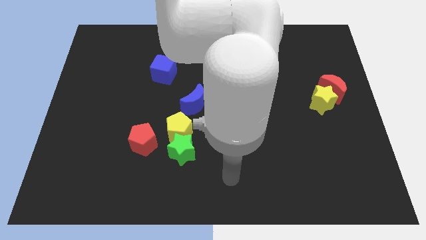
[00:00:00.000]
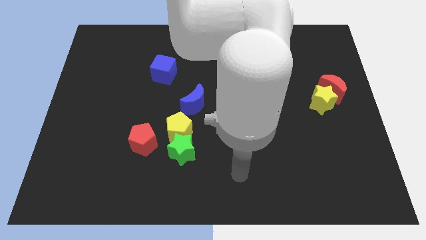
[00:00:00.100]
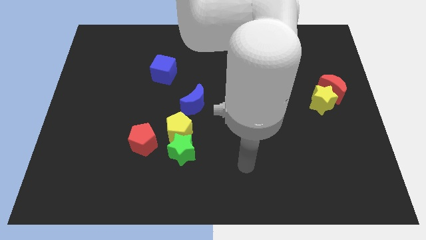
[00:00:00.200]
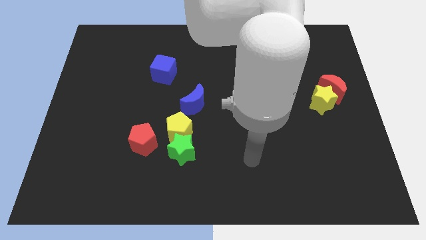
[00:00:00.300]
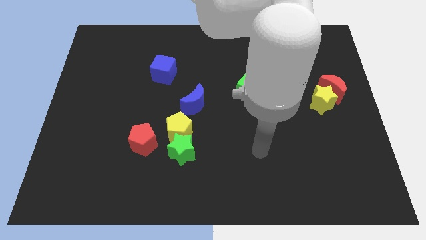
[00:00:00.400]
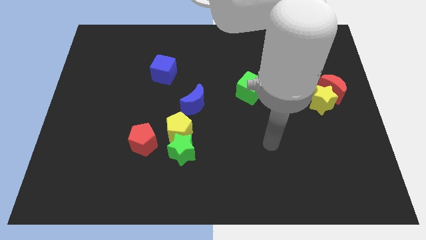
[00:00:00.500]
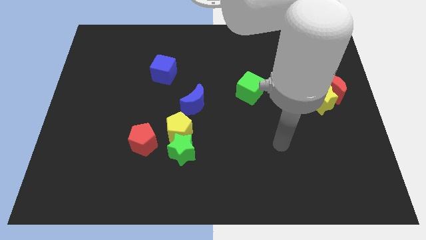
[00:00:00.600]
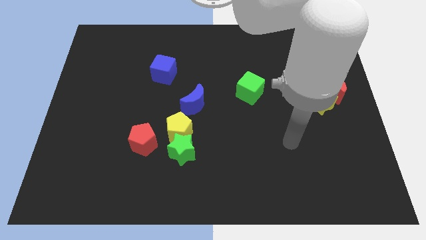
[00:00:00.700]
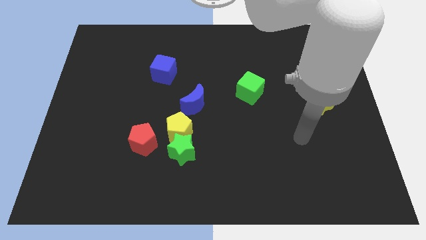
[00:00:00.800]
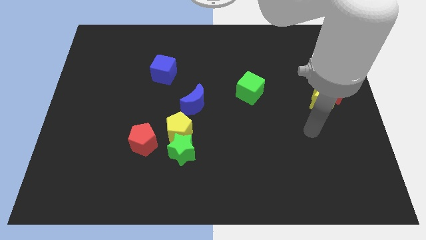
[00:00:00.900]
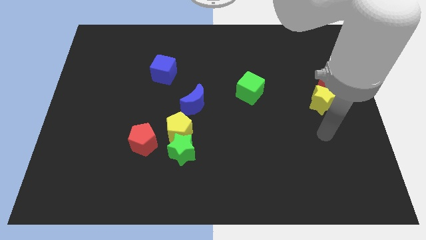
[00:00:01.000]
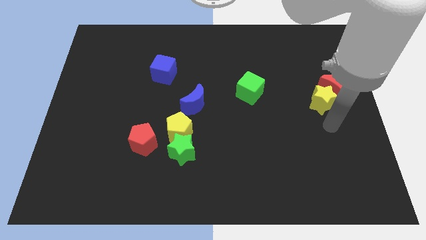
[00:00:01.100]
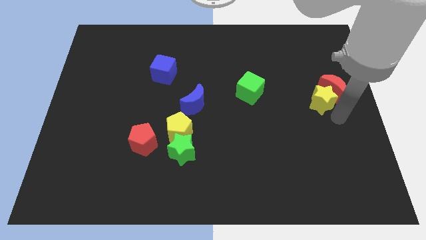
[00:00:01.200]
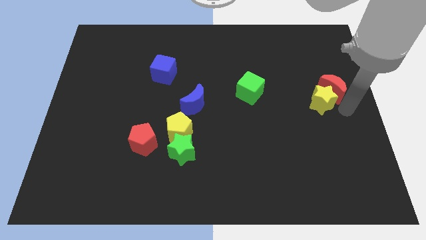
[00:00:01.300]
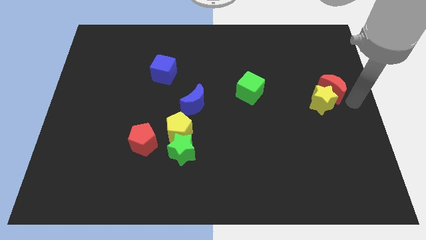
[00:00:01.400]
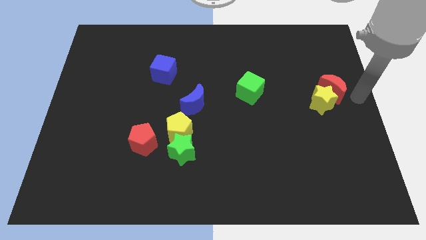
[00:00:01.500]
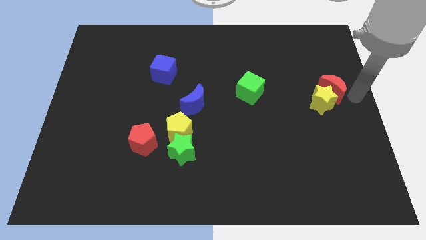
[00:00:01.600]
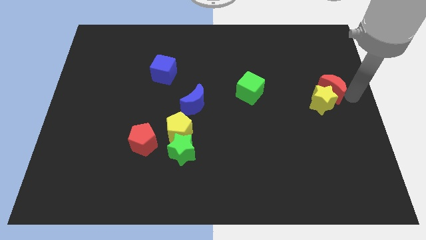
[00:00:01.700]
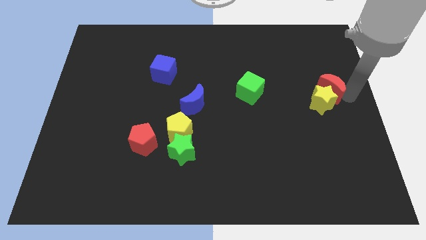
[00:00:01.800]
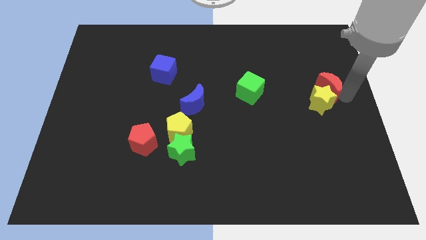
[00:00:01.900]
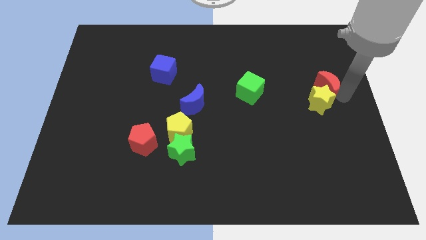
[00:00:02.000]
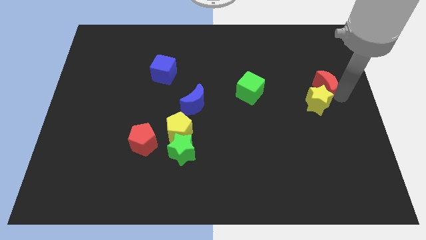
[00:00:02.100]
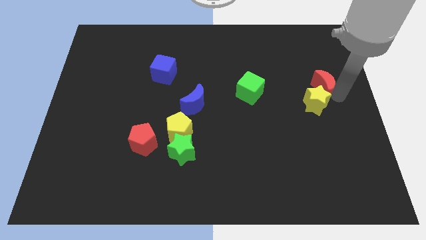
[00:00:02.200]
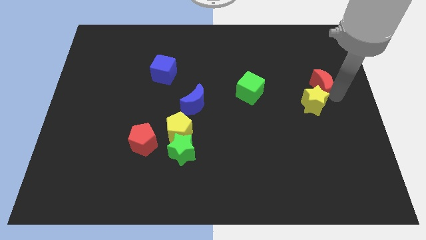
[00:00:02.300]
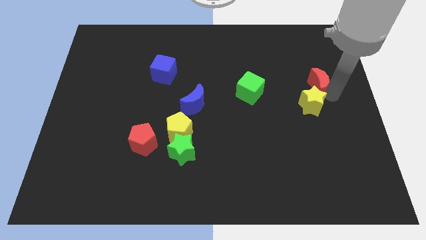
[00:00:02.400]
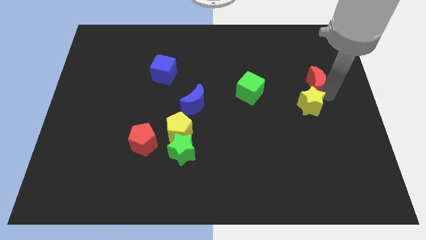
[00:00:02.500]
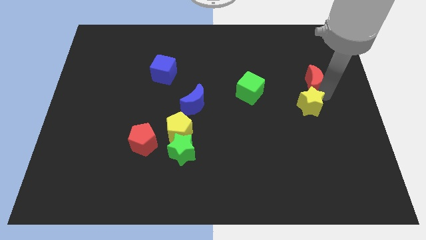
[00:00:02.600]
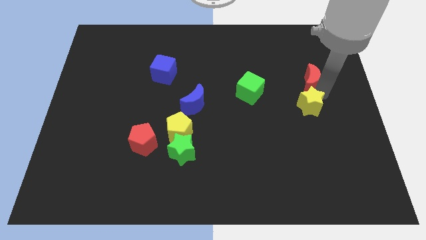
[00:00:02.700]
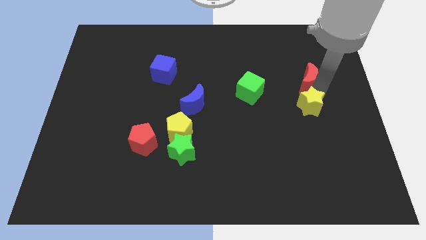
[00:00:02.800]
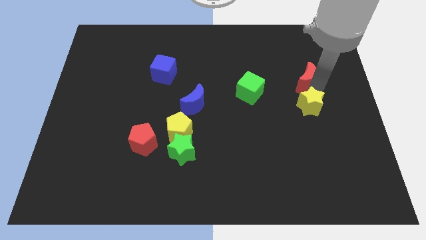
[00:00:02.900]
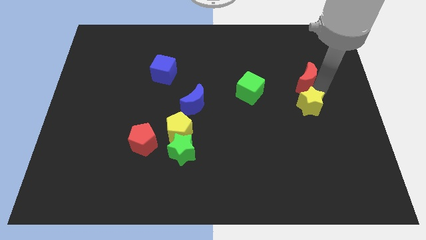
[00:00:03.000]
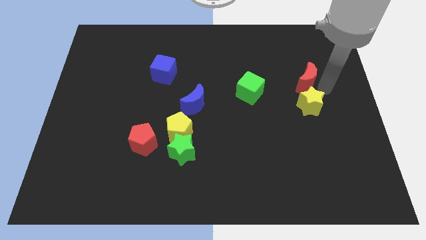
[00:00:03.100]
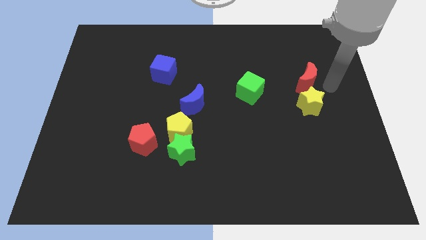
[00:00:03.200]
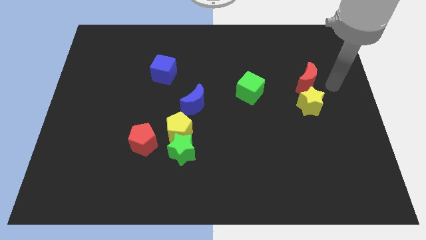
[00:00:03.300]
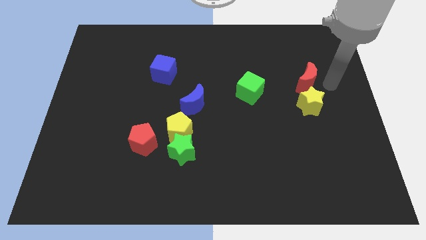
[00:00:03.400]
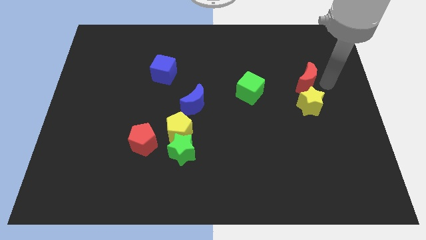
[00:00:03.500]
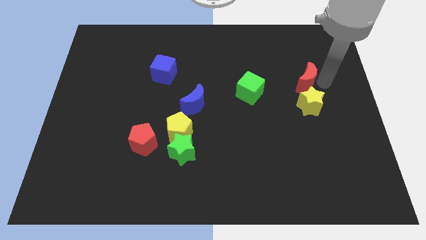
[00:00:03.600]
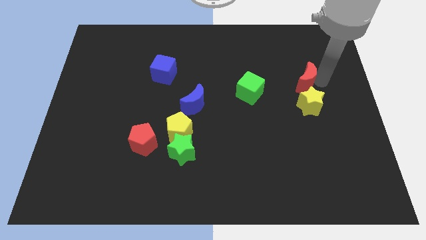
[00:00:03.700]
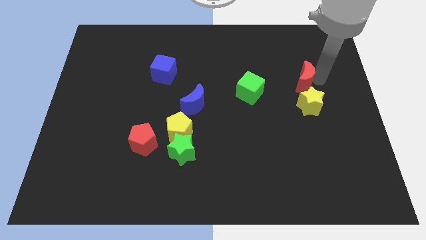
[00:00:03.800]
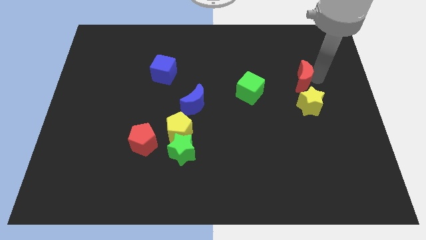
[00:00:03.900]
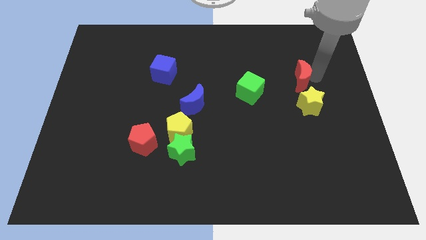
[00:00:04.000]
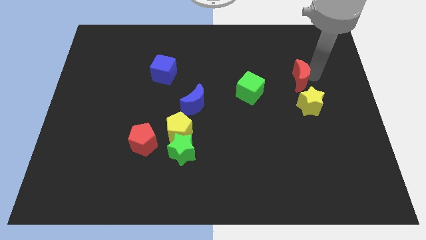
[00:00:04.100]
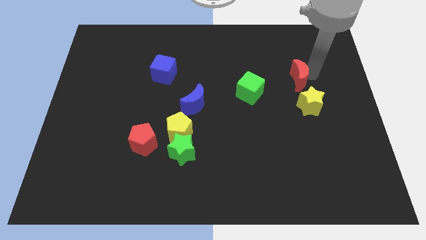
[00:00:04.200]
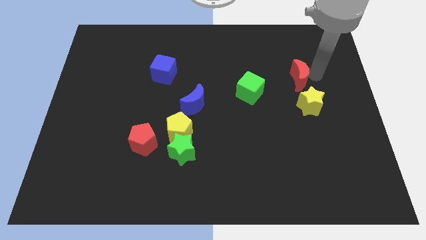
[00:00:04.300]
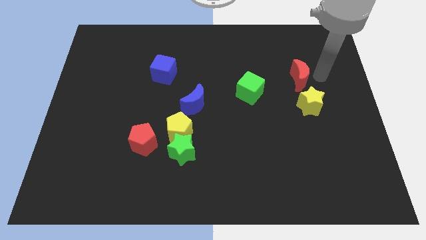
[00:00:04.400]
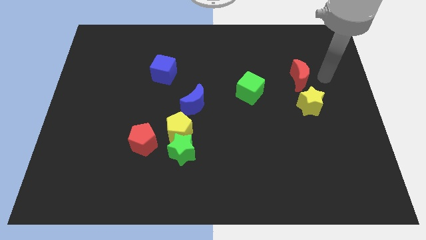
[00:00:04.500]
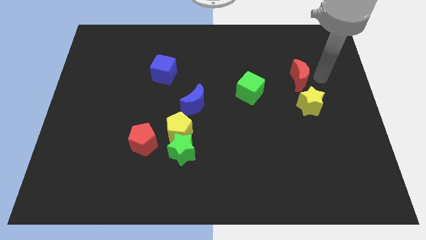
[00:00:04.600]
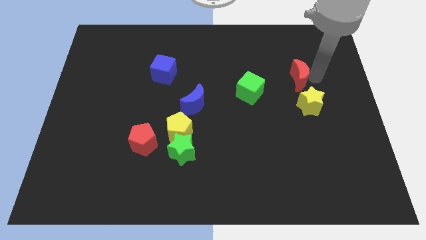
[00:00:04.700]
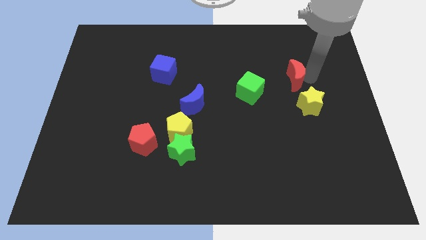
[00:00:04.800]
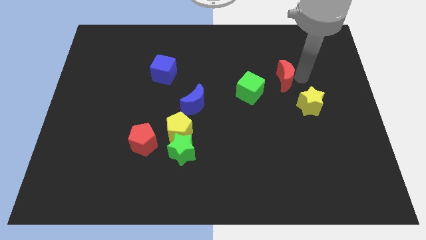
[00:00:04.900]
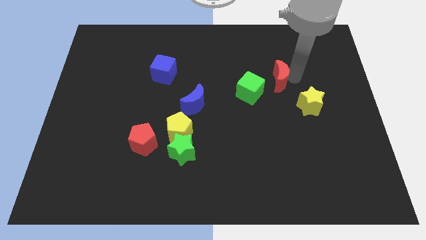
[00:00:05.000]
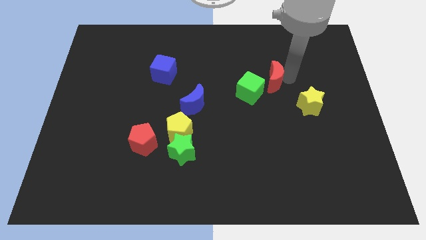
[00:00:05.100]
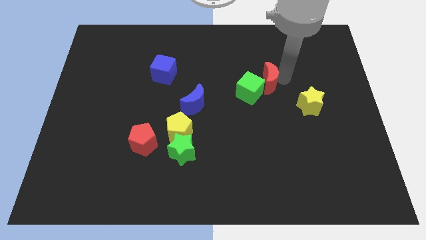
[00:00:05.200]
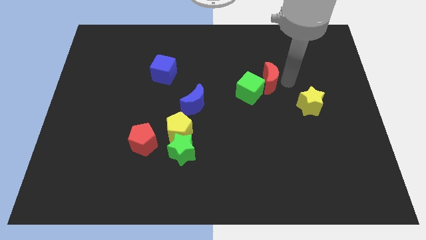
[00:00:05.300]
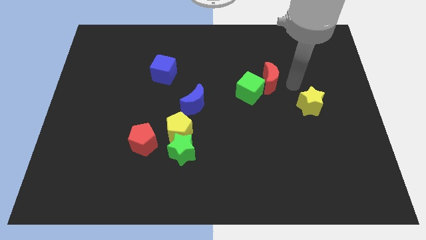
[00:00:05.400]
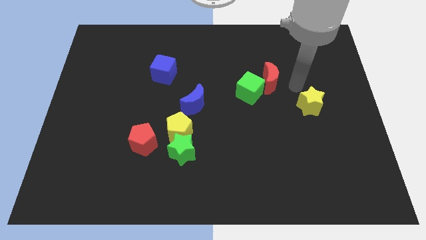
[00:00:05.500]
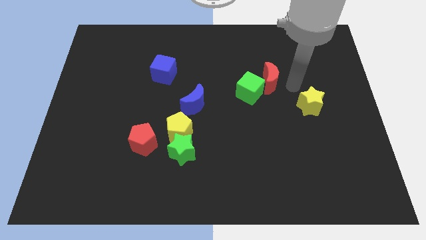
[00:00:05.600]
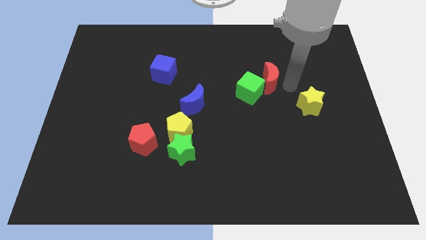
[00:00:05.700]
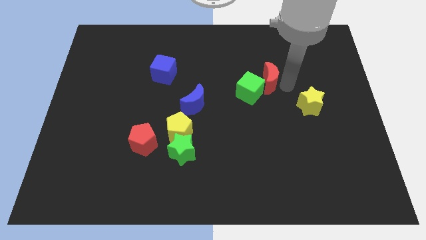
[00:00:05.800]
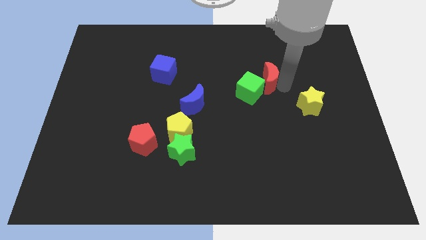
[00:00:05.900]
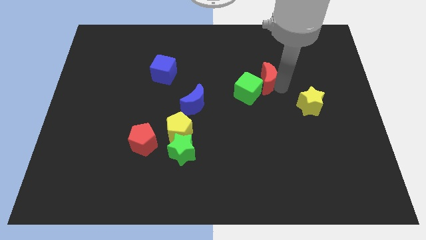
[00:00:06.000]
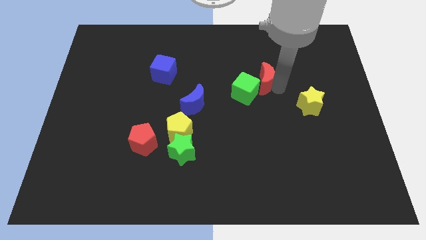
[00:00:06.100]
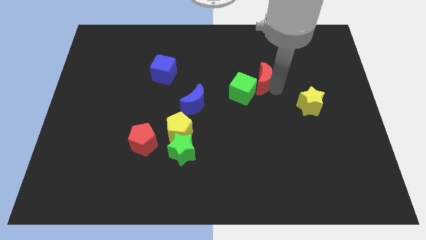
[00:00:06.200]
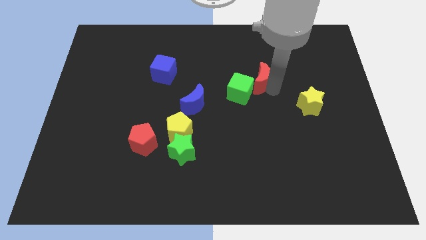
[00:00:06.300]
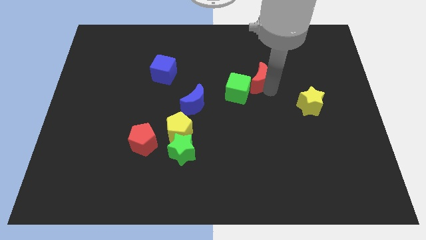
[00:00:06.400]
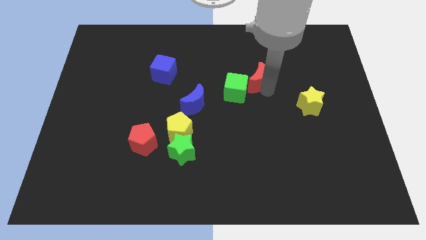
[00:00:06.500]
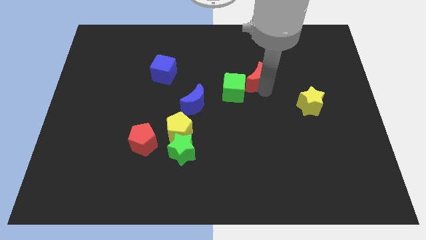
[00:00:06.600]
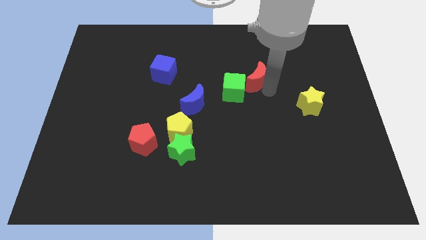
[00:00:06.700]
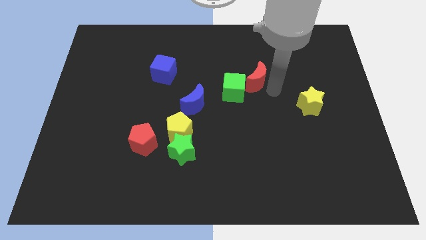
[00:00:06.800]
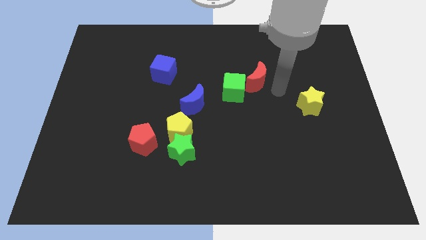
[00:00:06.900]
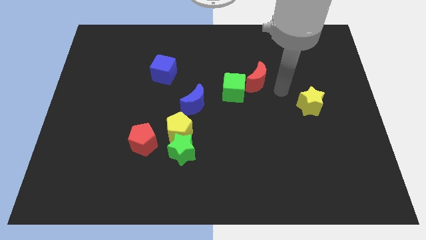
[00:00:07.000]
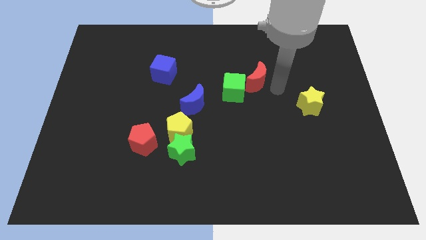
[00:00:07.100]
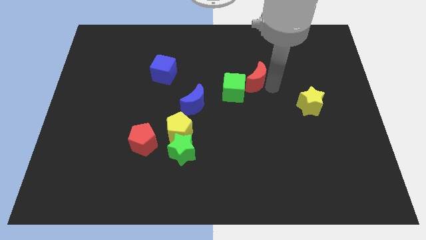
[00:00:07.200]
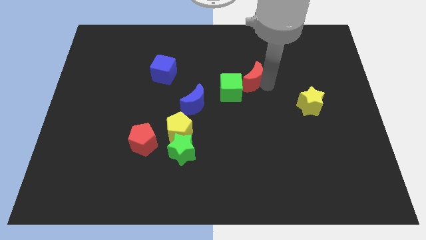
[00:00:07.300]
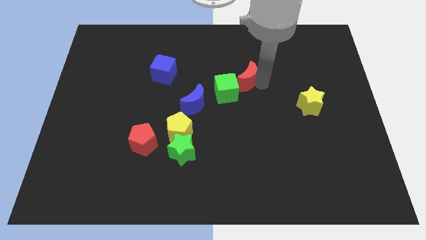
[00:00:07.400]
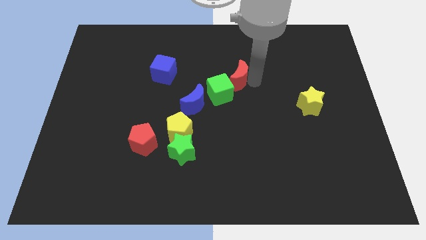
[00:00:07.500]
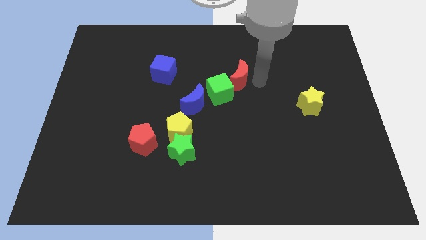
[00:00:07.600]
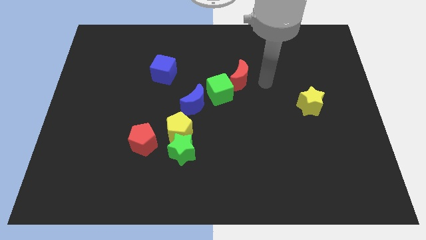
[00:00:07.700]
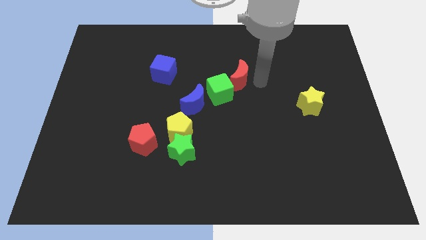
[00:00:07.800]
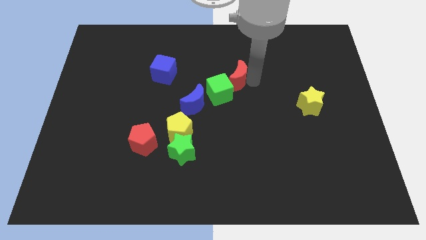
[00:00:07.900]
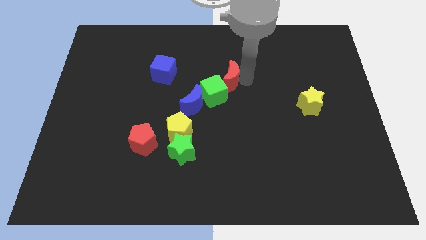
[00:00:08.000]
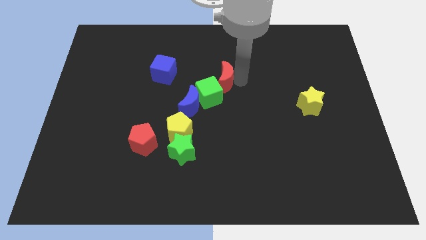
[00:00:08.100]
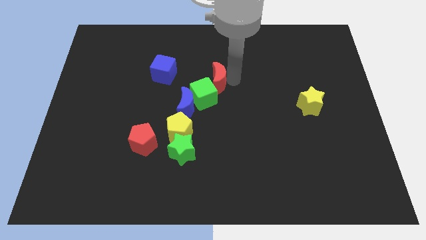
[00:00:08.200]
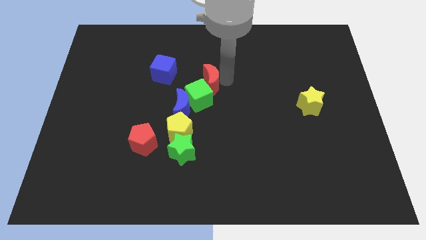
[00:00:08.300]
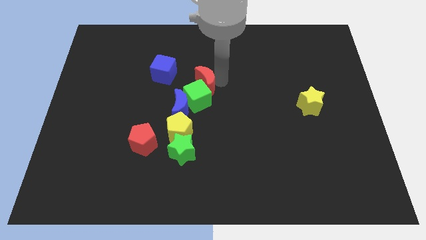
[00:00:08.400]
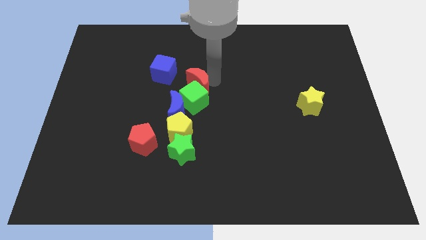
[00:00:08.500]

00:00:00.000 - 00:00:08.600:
move the red moon to the top of the yellow pentagon
